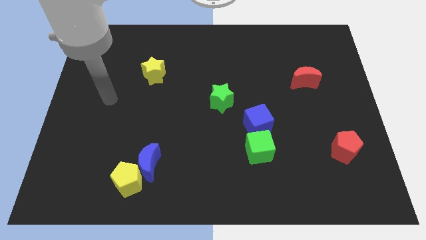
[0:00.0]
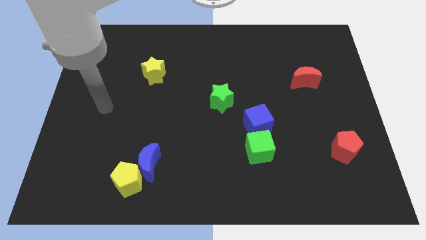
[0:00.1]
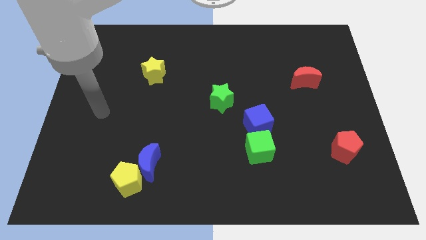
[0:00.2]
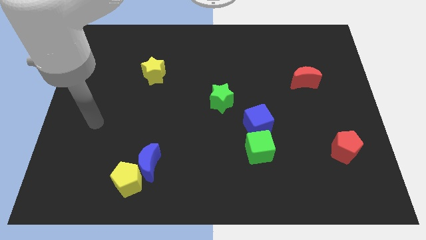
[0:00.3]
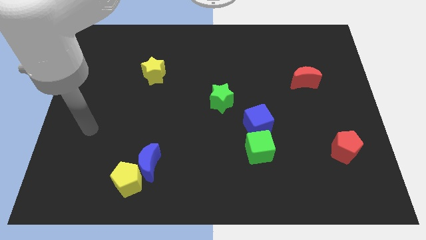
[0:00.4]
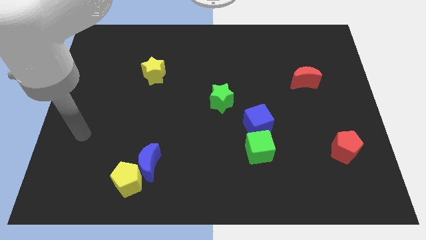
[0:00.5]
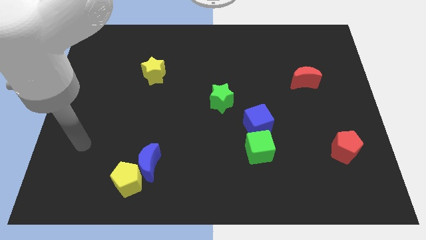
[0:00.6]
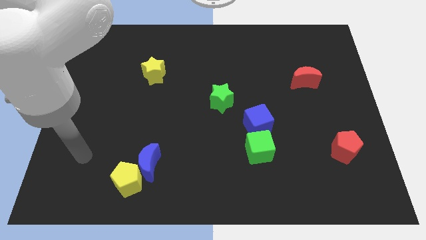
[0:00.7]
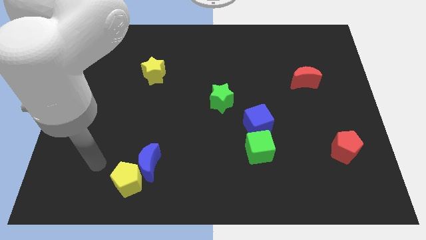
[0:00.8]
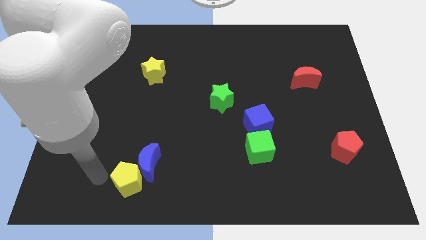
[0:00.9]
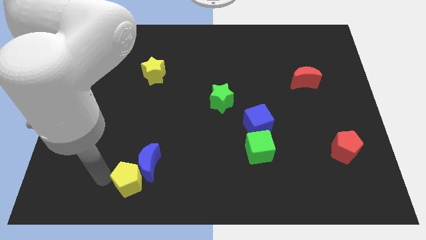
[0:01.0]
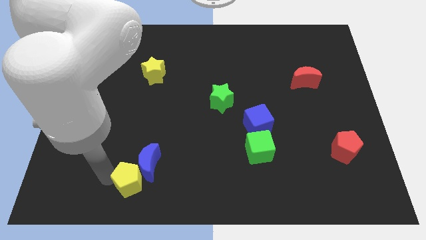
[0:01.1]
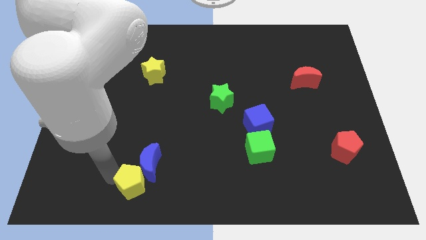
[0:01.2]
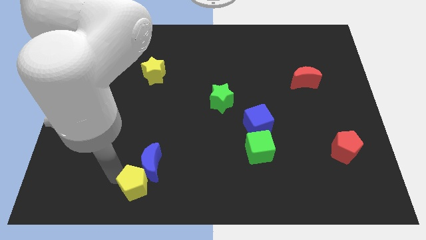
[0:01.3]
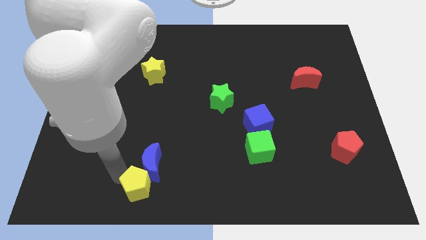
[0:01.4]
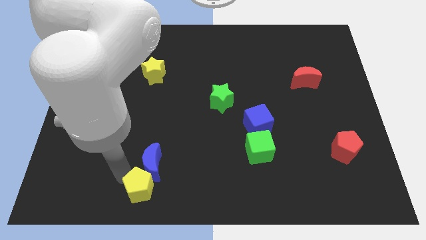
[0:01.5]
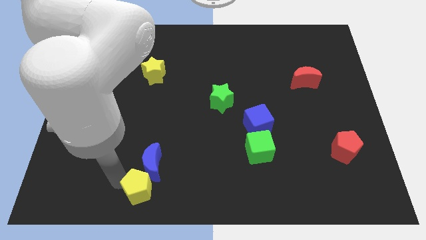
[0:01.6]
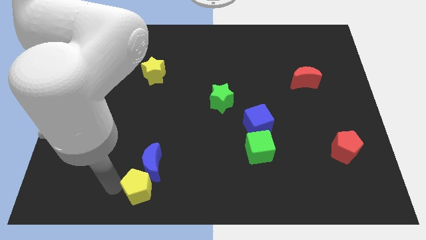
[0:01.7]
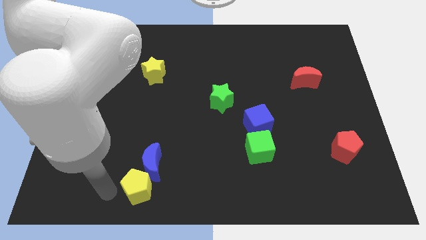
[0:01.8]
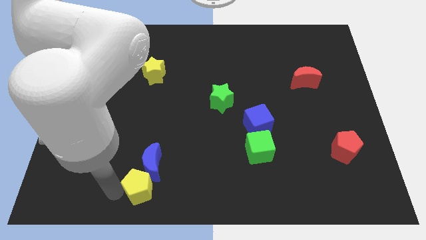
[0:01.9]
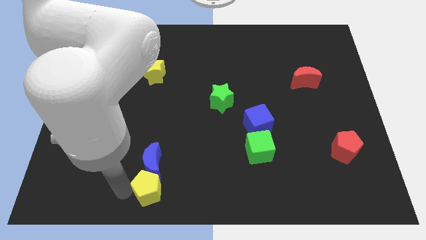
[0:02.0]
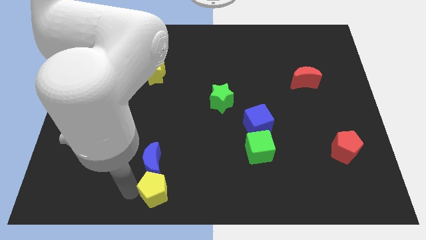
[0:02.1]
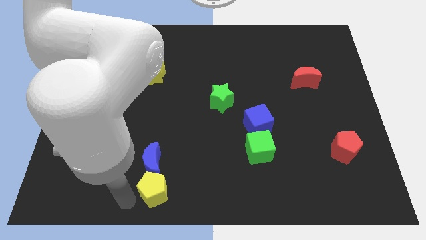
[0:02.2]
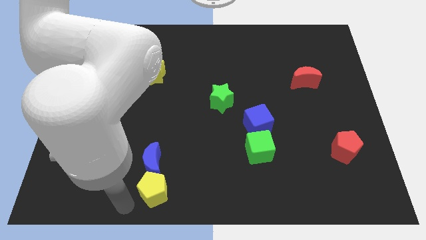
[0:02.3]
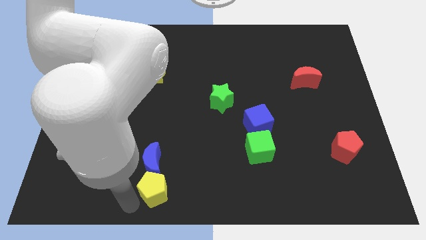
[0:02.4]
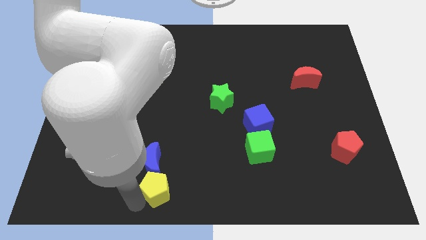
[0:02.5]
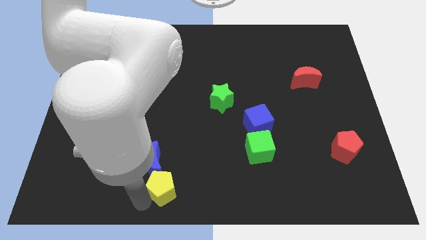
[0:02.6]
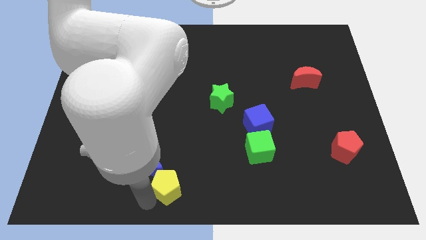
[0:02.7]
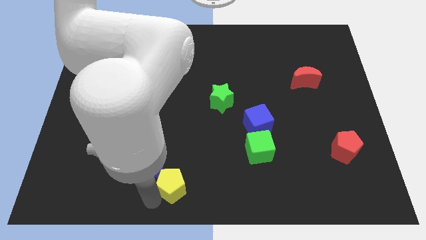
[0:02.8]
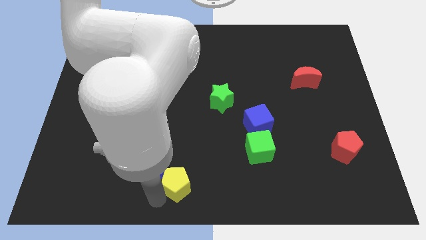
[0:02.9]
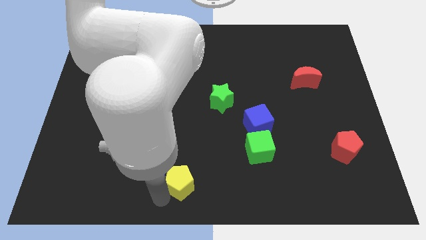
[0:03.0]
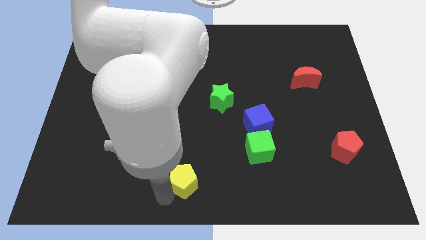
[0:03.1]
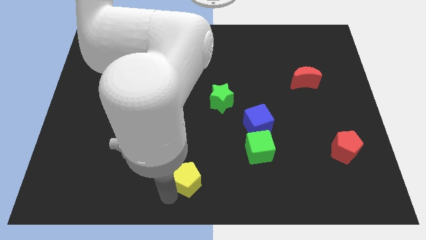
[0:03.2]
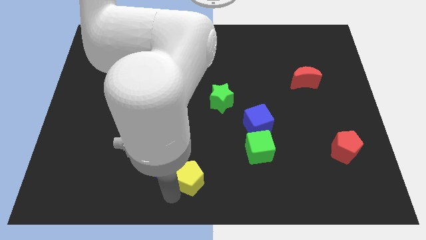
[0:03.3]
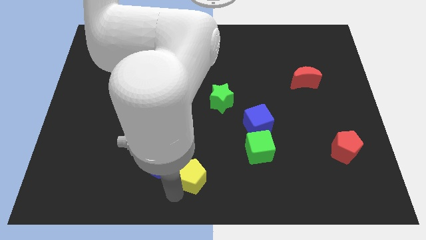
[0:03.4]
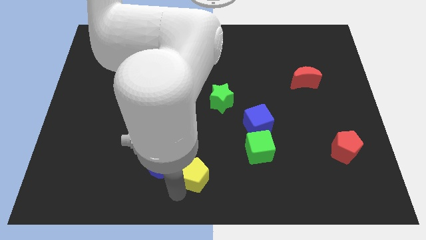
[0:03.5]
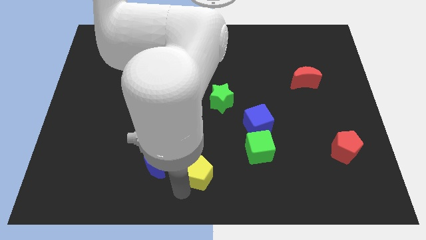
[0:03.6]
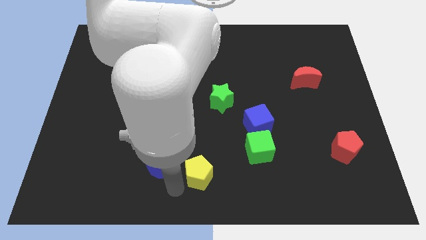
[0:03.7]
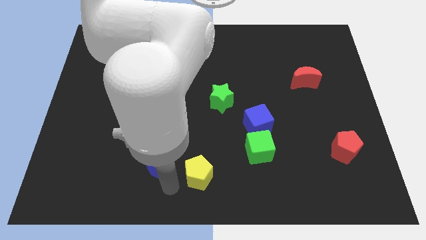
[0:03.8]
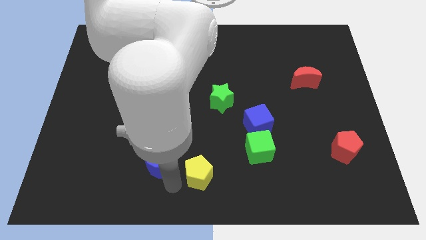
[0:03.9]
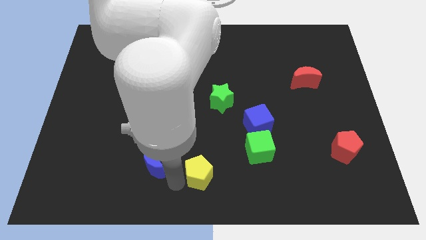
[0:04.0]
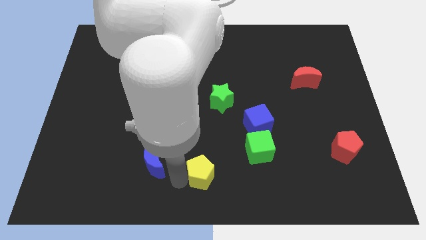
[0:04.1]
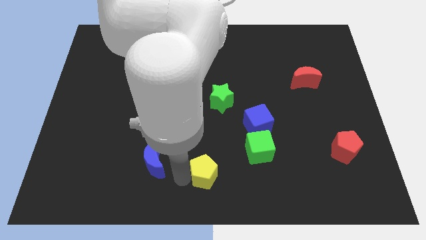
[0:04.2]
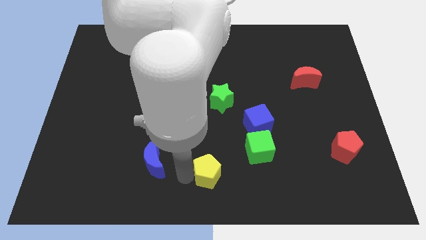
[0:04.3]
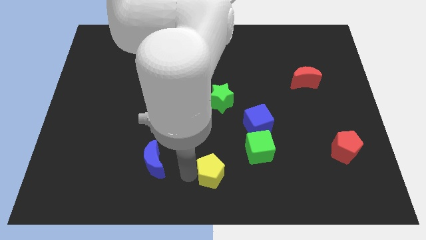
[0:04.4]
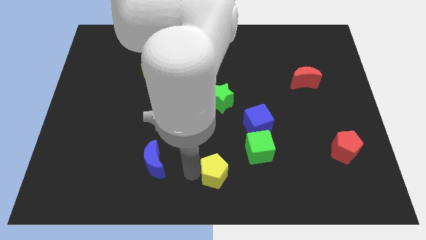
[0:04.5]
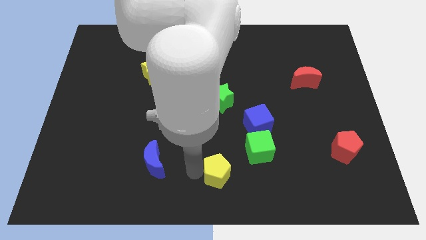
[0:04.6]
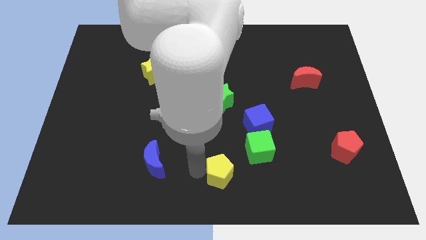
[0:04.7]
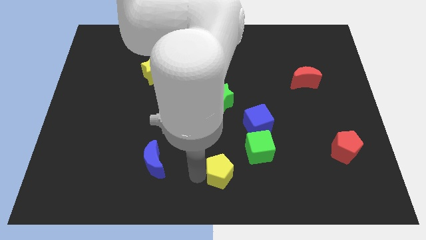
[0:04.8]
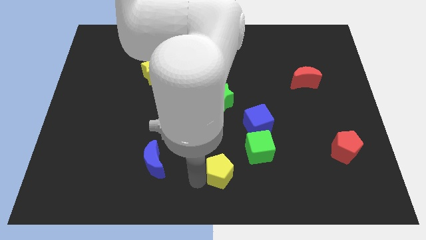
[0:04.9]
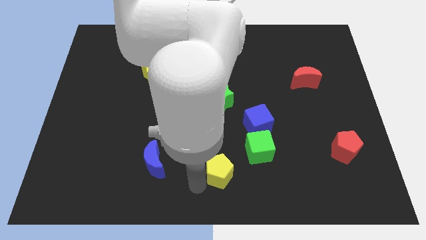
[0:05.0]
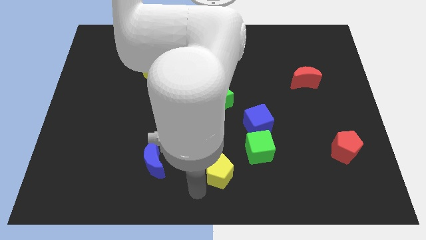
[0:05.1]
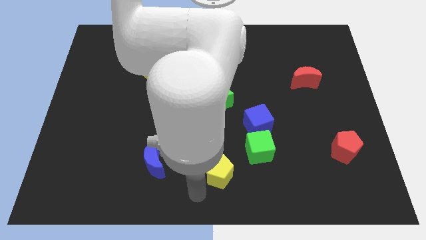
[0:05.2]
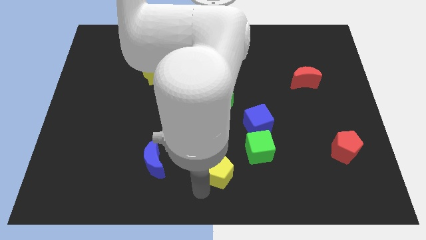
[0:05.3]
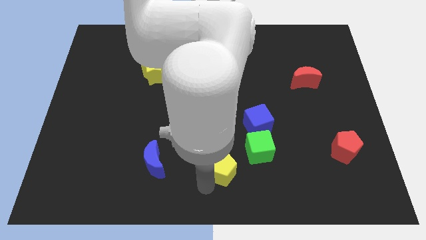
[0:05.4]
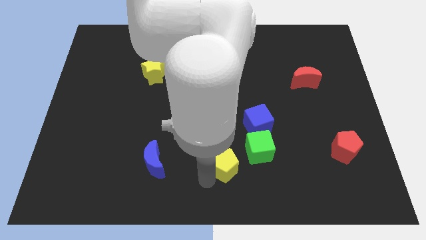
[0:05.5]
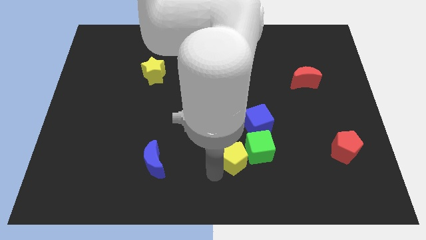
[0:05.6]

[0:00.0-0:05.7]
slide the yellow pentagon towards the green cube

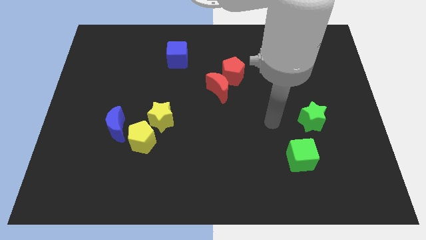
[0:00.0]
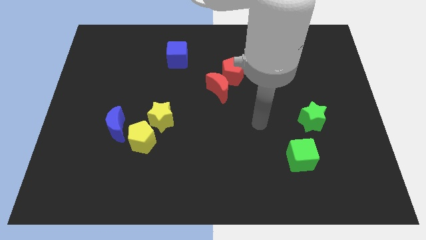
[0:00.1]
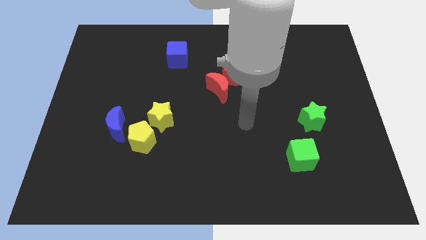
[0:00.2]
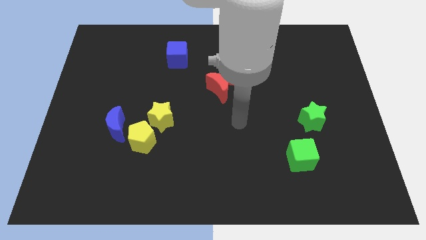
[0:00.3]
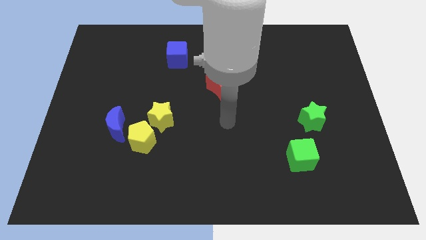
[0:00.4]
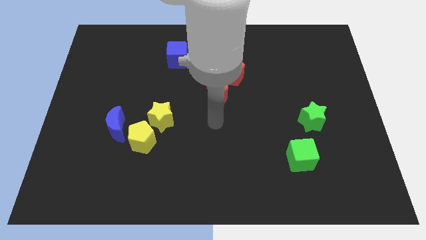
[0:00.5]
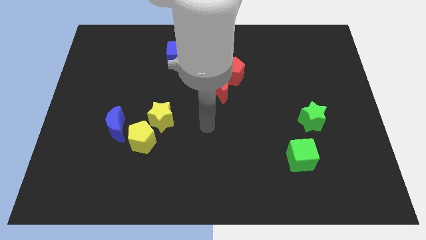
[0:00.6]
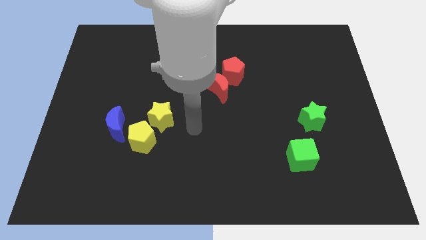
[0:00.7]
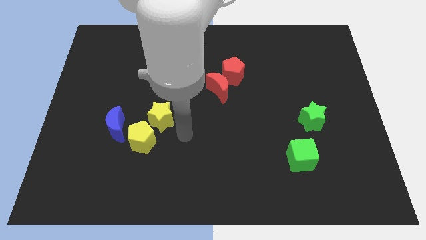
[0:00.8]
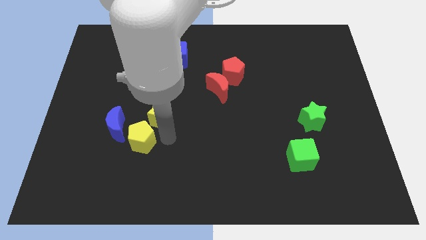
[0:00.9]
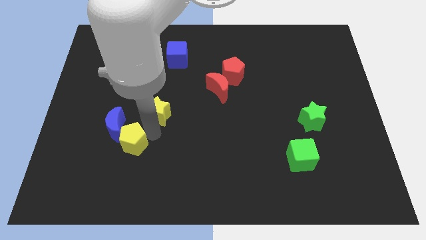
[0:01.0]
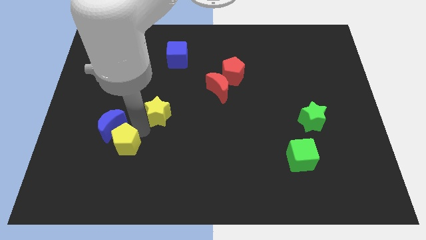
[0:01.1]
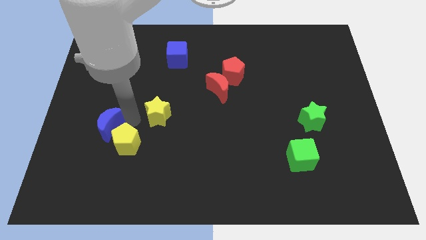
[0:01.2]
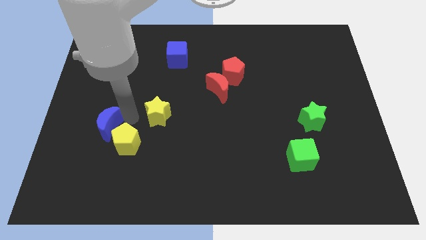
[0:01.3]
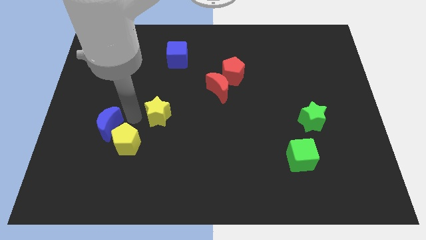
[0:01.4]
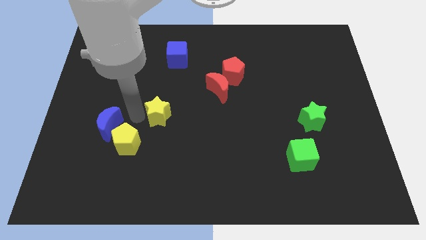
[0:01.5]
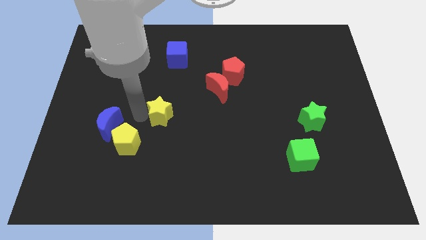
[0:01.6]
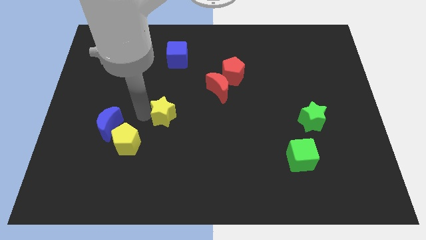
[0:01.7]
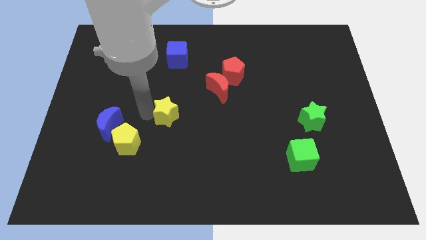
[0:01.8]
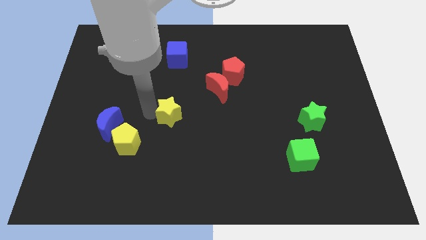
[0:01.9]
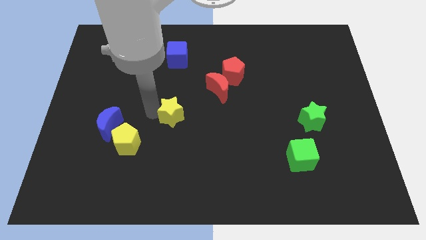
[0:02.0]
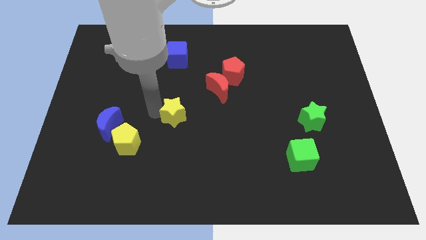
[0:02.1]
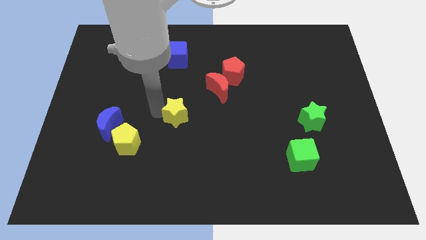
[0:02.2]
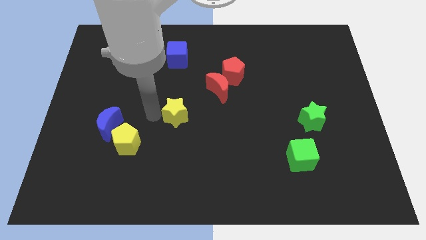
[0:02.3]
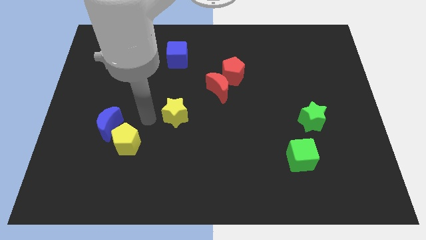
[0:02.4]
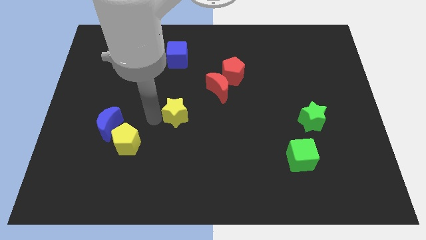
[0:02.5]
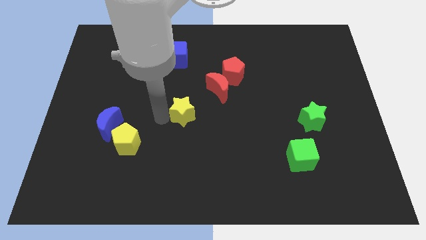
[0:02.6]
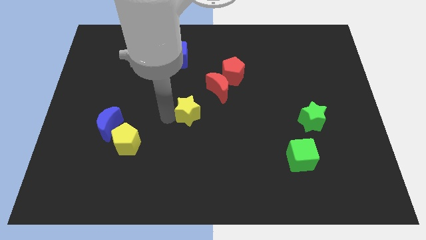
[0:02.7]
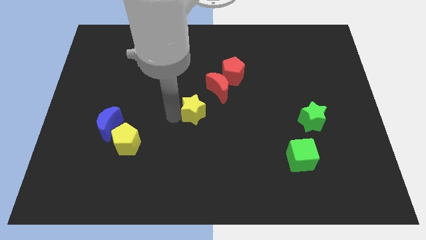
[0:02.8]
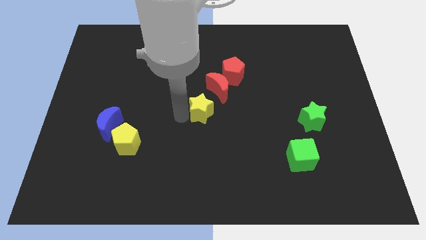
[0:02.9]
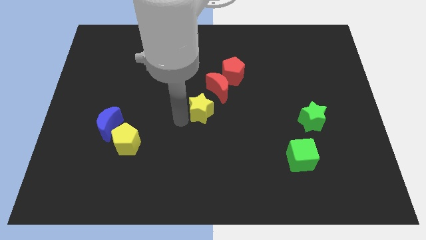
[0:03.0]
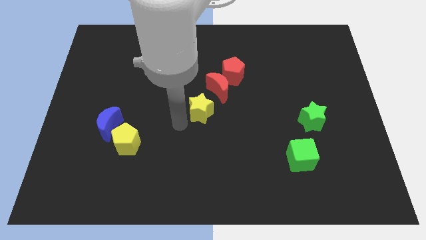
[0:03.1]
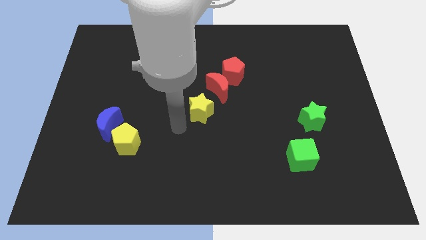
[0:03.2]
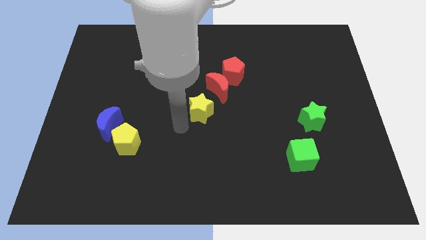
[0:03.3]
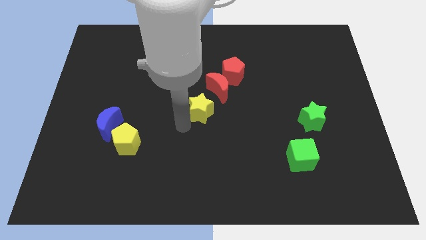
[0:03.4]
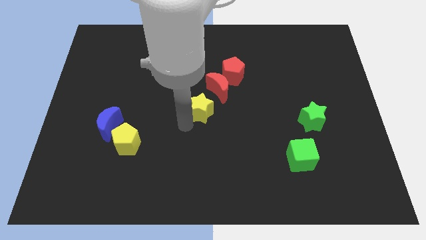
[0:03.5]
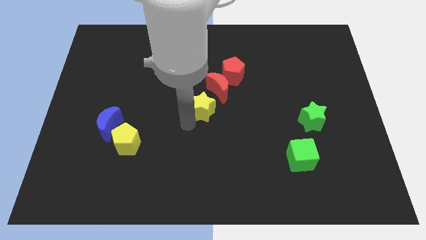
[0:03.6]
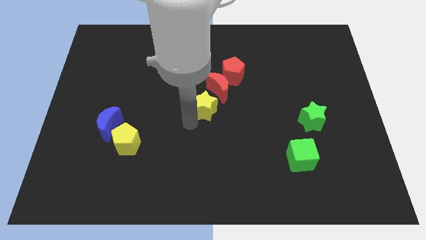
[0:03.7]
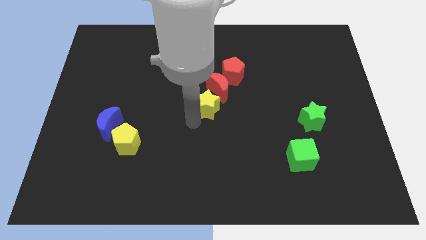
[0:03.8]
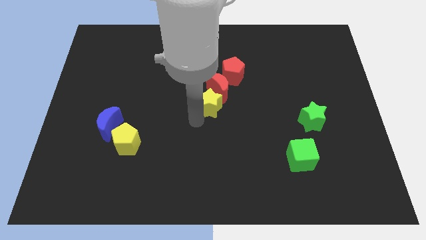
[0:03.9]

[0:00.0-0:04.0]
move the yellow star close to the red moon
